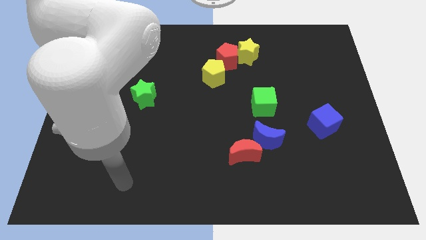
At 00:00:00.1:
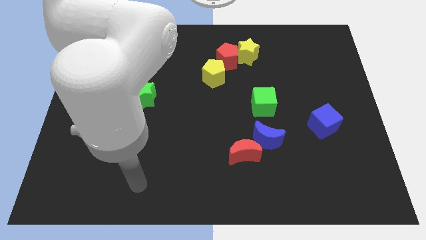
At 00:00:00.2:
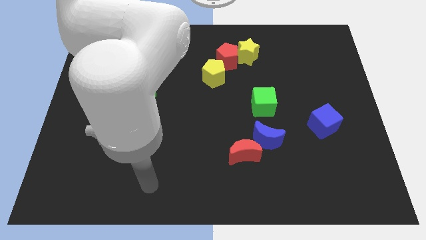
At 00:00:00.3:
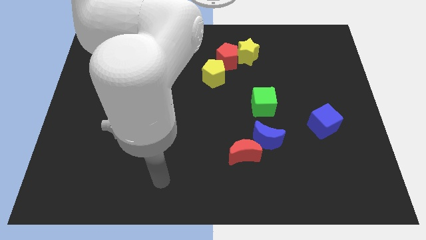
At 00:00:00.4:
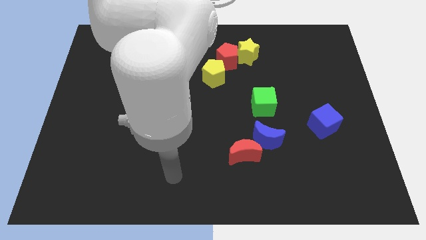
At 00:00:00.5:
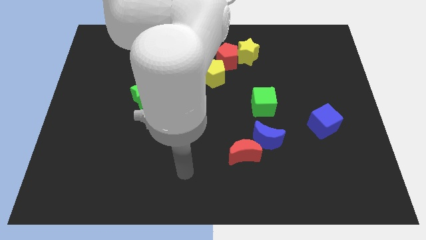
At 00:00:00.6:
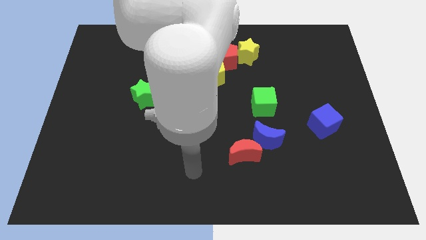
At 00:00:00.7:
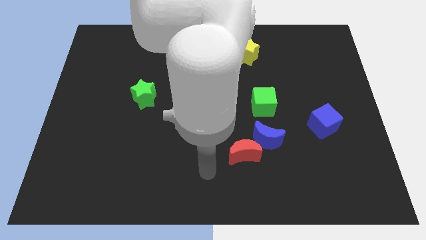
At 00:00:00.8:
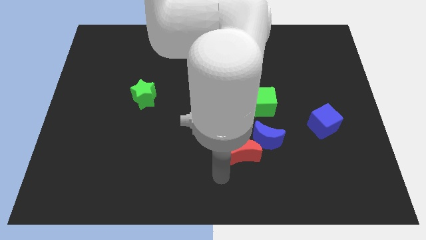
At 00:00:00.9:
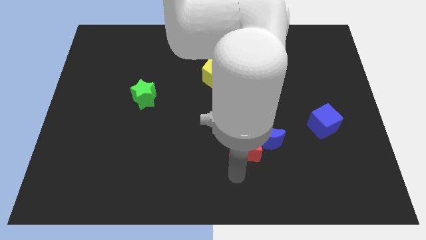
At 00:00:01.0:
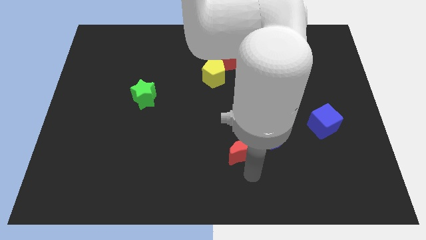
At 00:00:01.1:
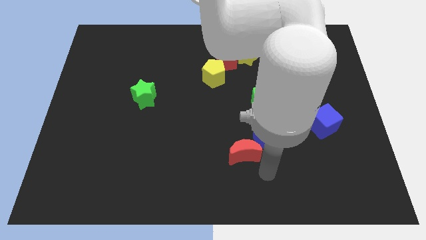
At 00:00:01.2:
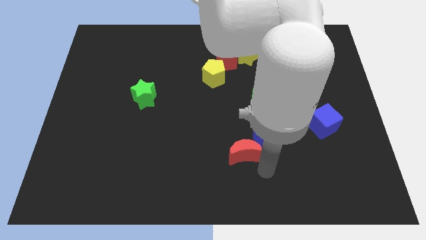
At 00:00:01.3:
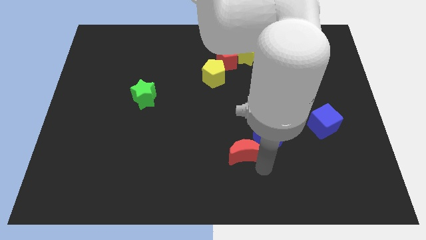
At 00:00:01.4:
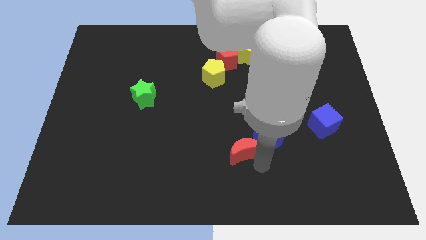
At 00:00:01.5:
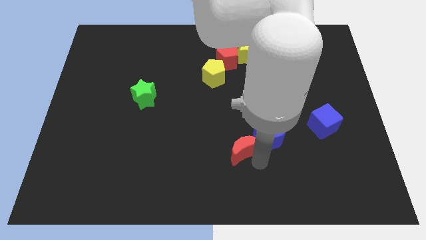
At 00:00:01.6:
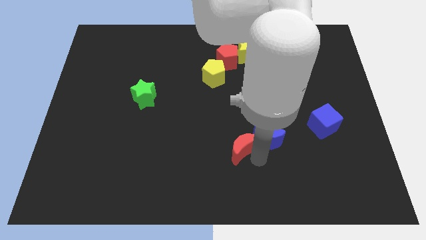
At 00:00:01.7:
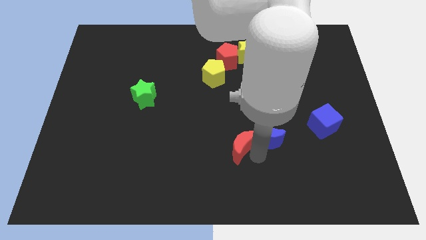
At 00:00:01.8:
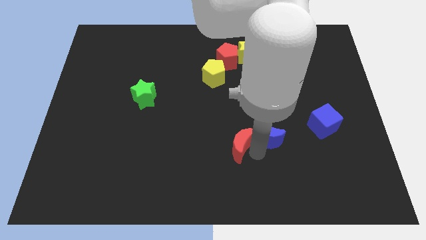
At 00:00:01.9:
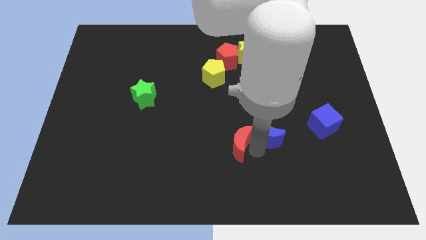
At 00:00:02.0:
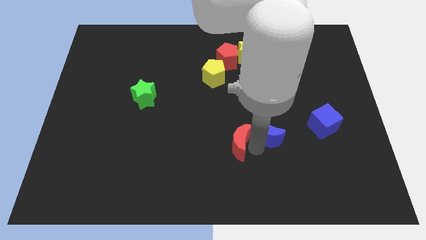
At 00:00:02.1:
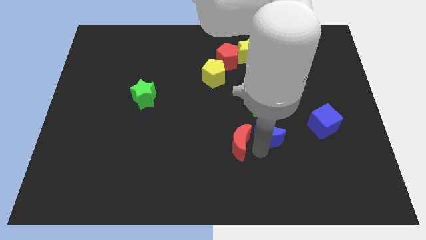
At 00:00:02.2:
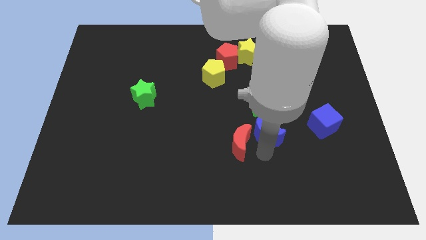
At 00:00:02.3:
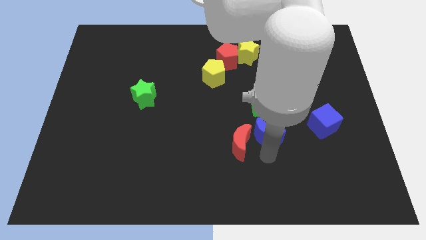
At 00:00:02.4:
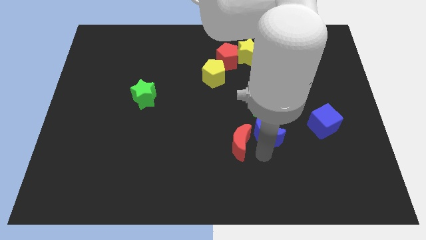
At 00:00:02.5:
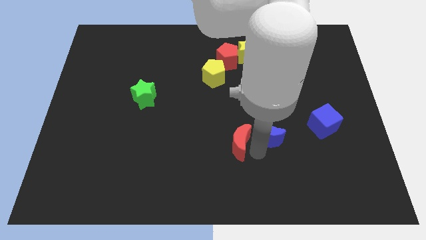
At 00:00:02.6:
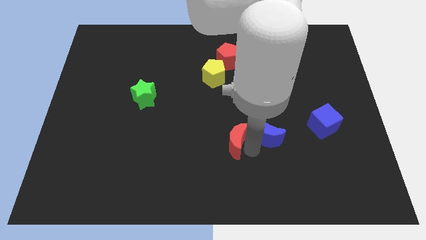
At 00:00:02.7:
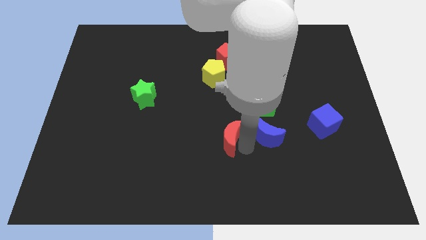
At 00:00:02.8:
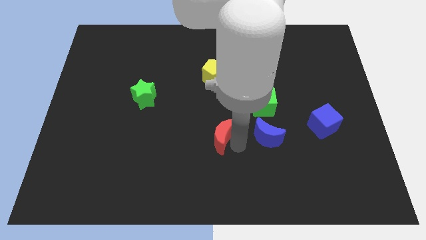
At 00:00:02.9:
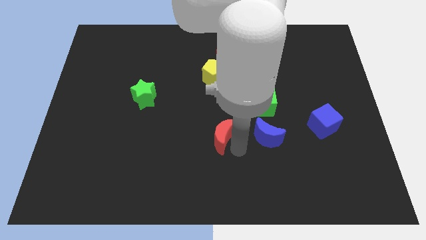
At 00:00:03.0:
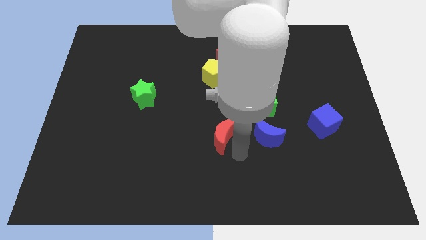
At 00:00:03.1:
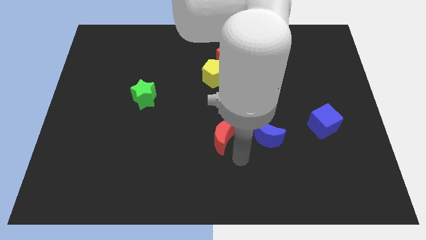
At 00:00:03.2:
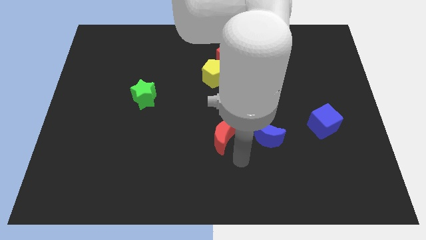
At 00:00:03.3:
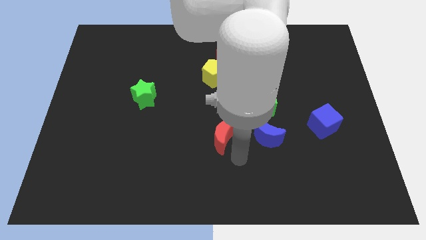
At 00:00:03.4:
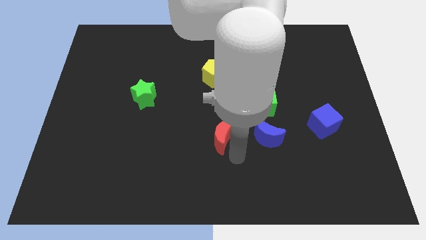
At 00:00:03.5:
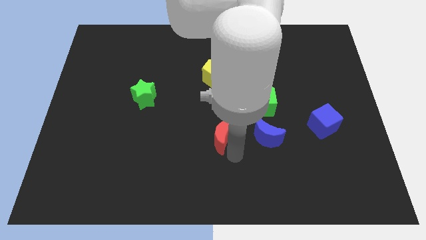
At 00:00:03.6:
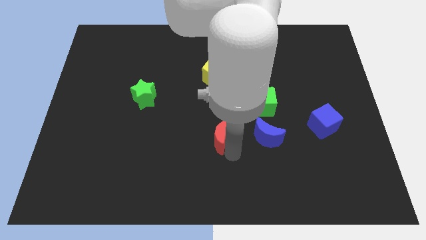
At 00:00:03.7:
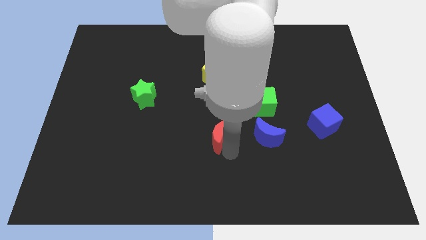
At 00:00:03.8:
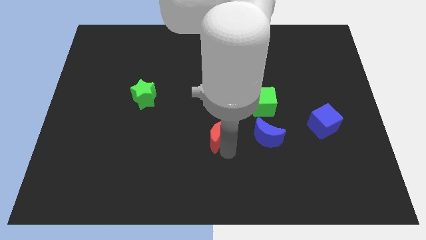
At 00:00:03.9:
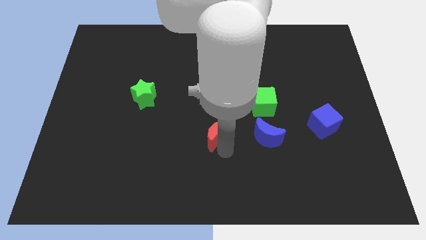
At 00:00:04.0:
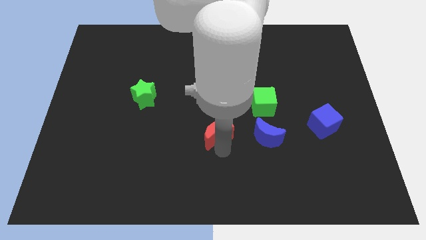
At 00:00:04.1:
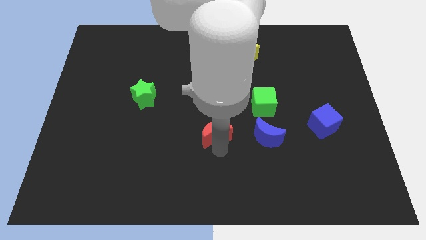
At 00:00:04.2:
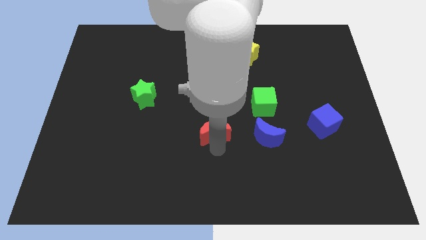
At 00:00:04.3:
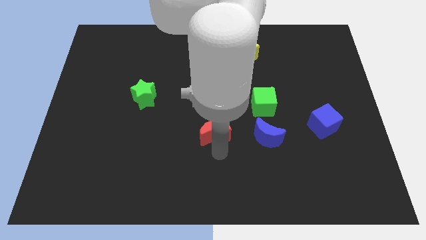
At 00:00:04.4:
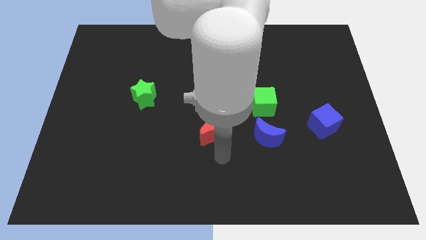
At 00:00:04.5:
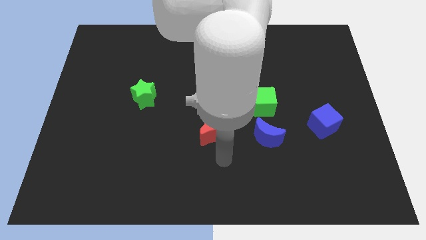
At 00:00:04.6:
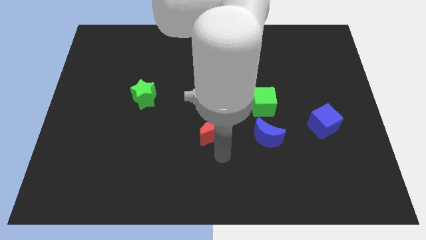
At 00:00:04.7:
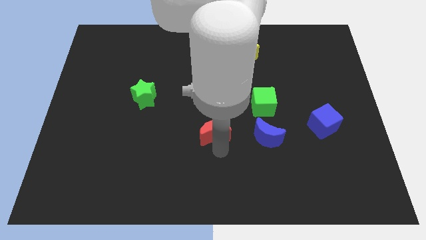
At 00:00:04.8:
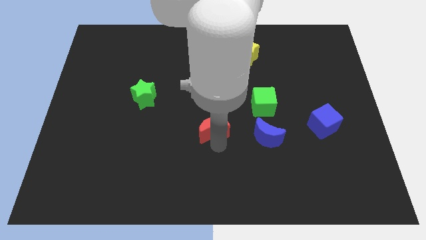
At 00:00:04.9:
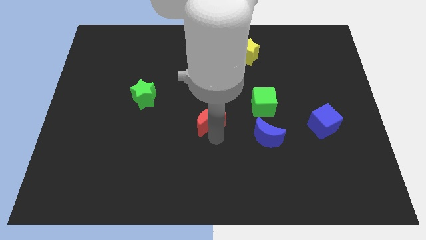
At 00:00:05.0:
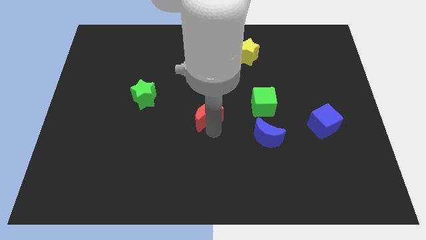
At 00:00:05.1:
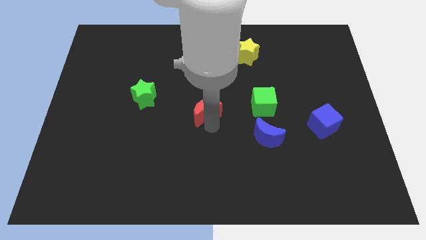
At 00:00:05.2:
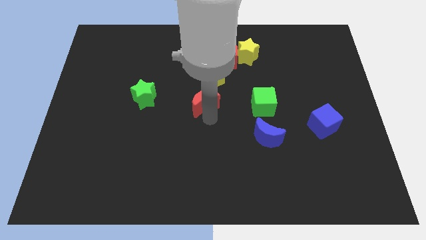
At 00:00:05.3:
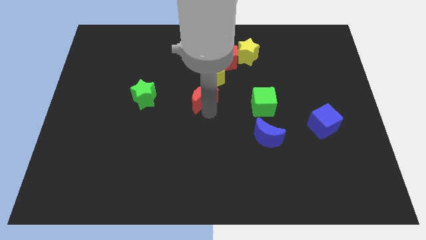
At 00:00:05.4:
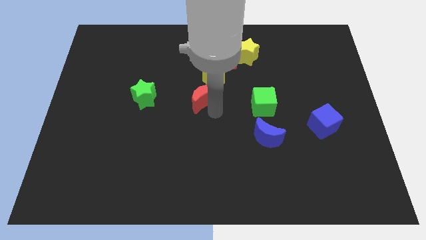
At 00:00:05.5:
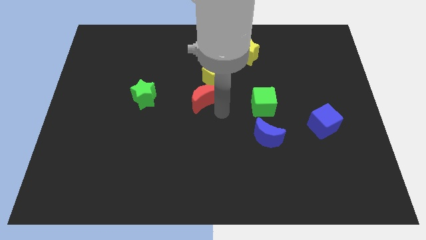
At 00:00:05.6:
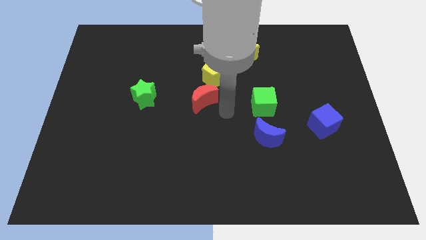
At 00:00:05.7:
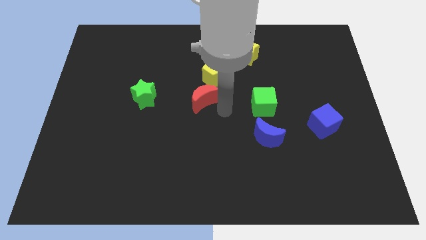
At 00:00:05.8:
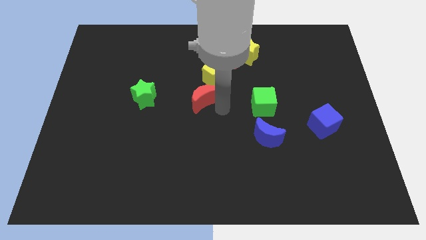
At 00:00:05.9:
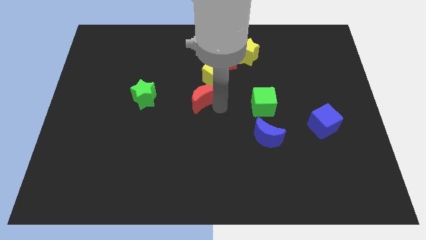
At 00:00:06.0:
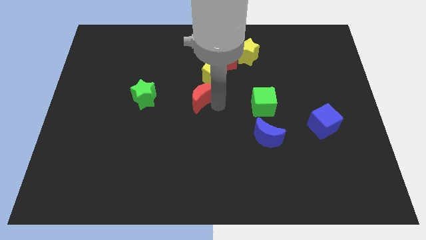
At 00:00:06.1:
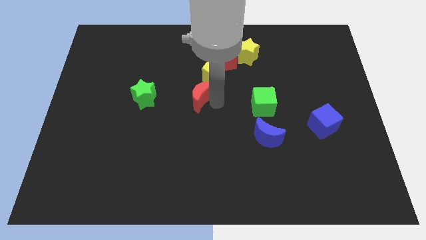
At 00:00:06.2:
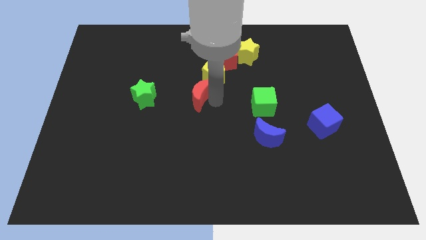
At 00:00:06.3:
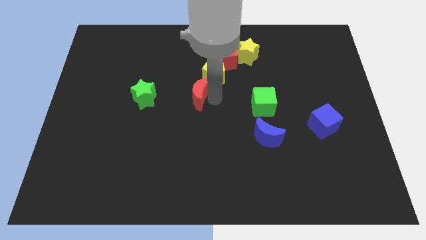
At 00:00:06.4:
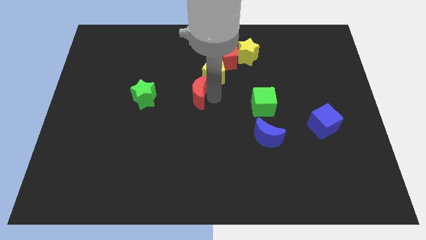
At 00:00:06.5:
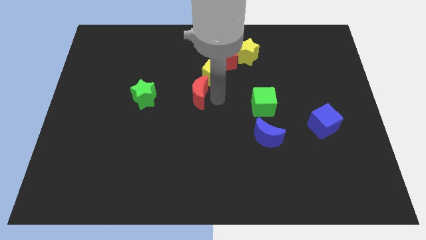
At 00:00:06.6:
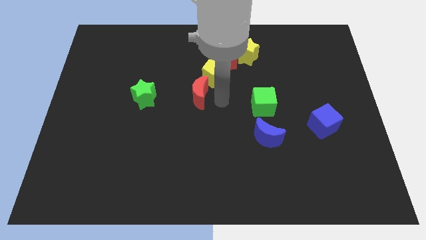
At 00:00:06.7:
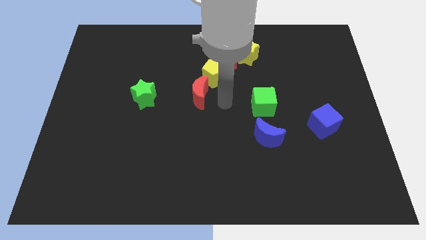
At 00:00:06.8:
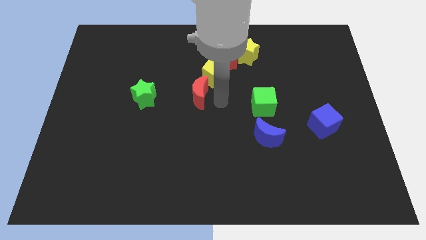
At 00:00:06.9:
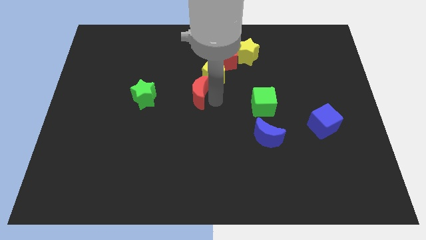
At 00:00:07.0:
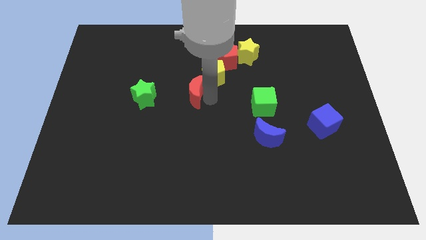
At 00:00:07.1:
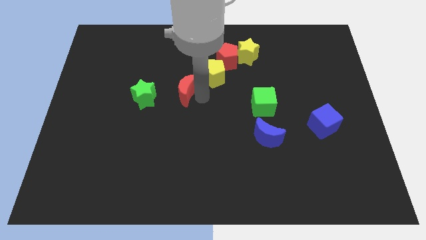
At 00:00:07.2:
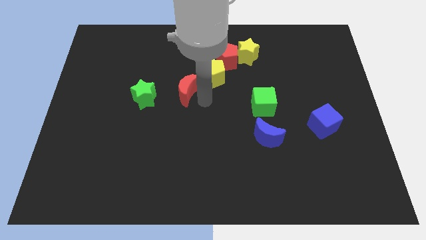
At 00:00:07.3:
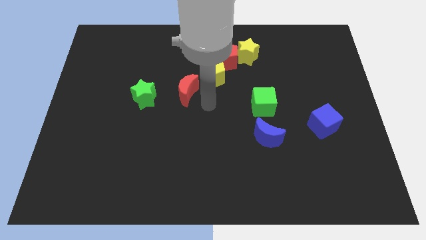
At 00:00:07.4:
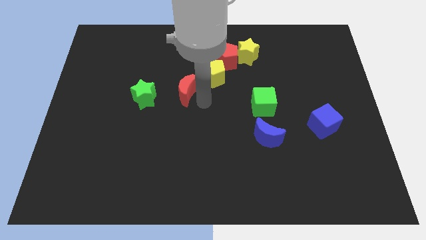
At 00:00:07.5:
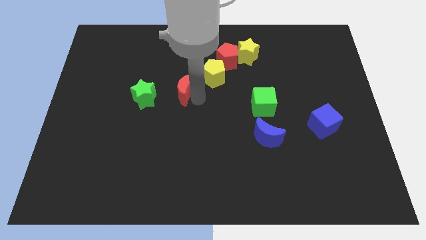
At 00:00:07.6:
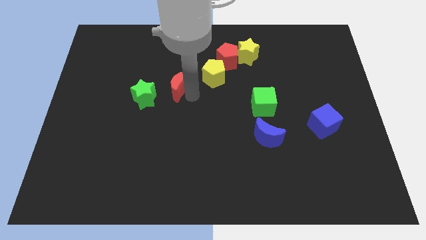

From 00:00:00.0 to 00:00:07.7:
move the red moon to the top right of the green star

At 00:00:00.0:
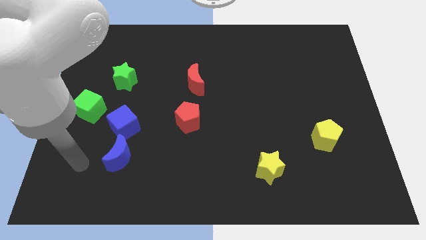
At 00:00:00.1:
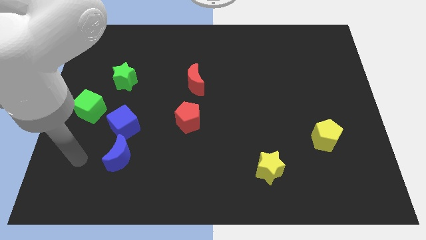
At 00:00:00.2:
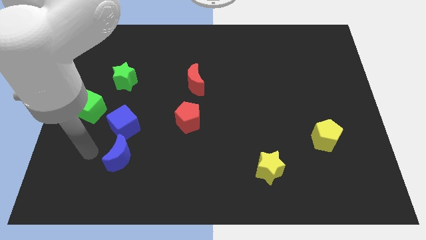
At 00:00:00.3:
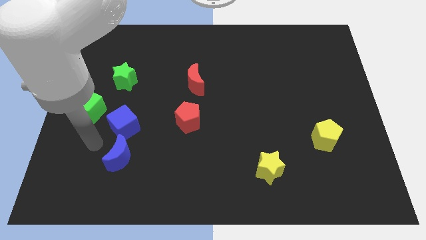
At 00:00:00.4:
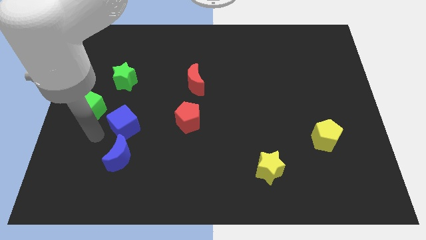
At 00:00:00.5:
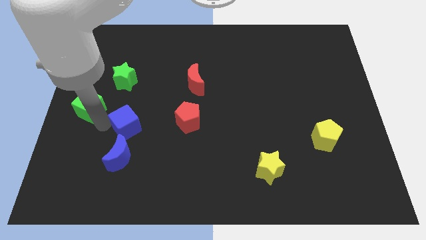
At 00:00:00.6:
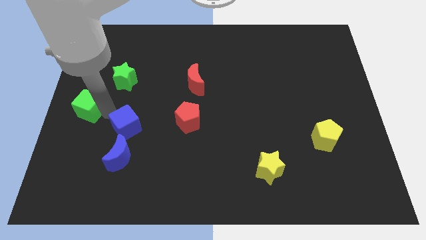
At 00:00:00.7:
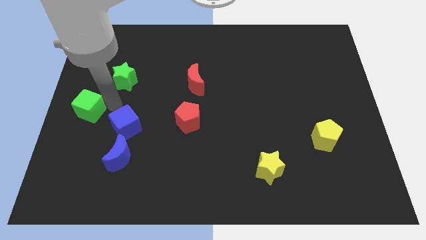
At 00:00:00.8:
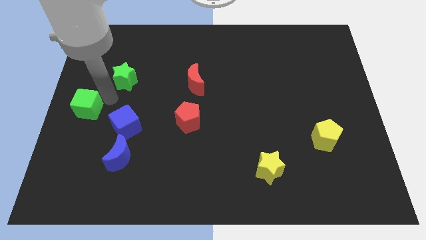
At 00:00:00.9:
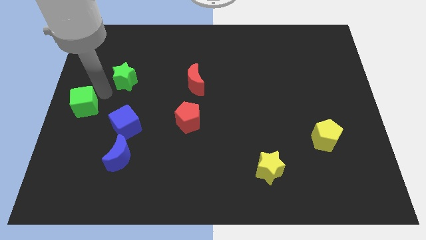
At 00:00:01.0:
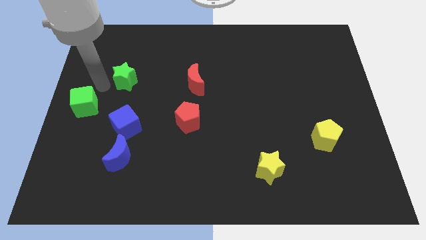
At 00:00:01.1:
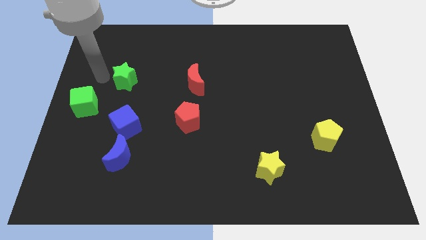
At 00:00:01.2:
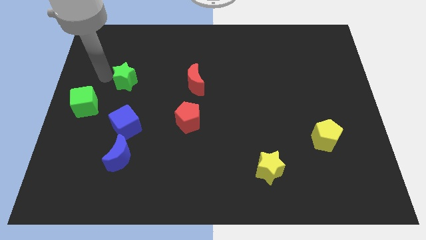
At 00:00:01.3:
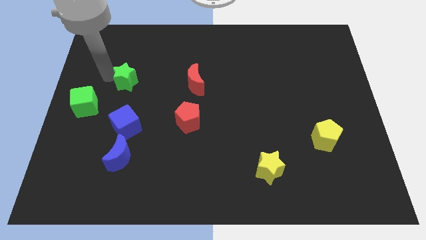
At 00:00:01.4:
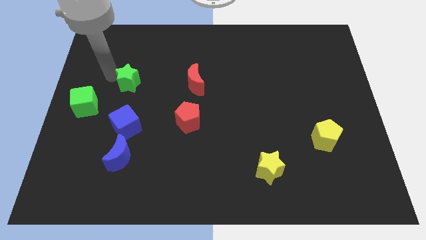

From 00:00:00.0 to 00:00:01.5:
slide the green star left of the red moon
